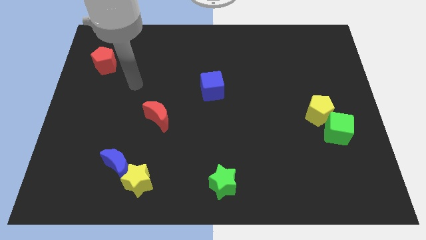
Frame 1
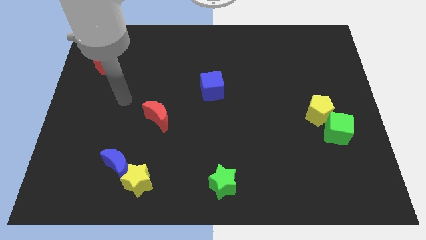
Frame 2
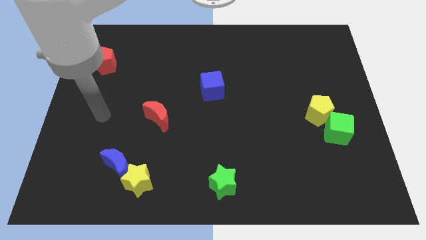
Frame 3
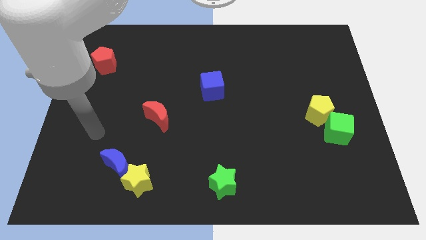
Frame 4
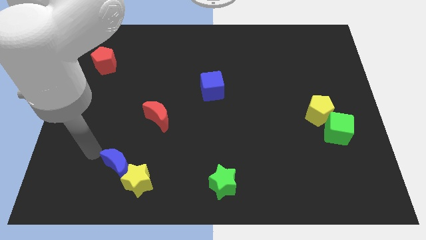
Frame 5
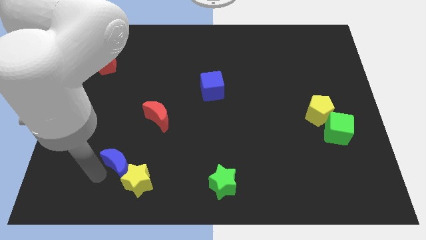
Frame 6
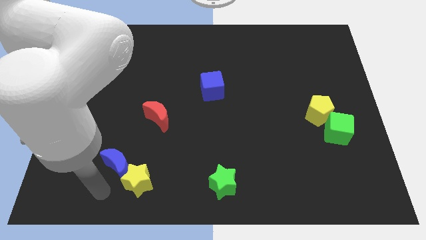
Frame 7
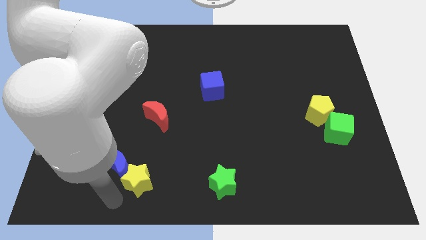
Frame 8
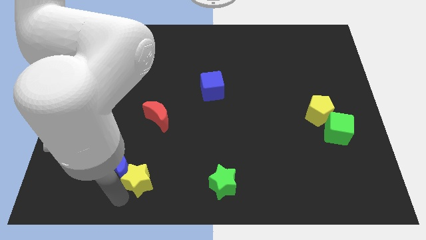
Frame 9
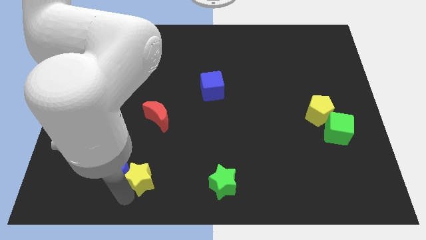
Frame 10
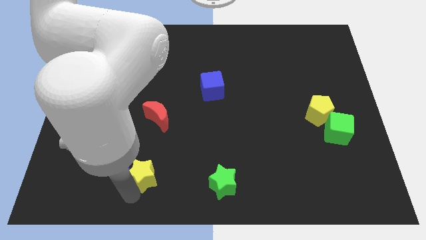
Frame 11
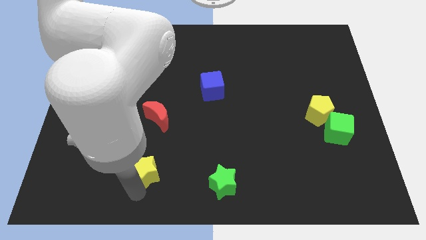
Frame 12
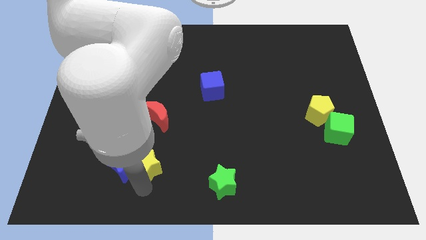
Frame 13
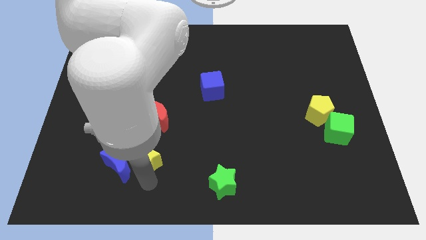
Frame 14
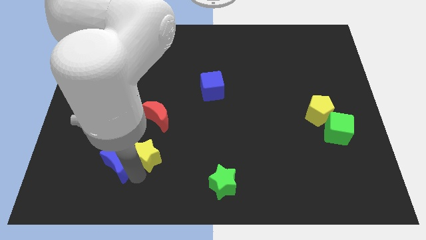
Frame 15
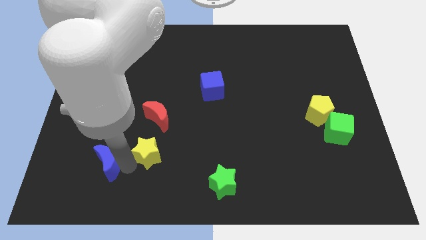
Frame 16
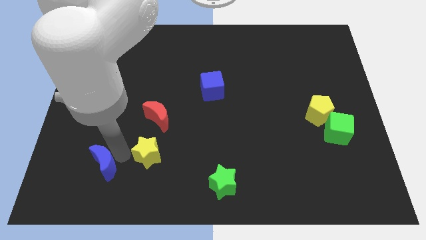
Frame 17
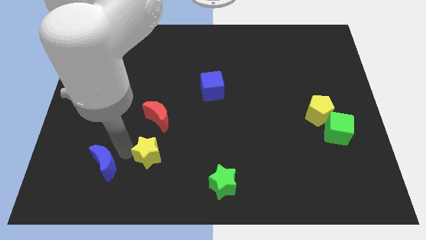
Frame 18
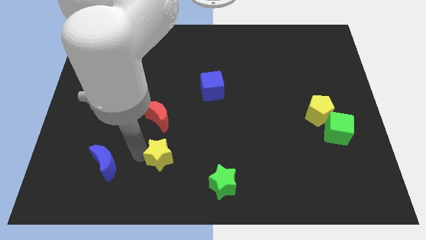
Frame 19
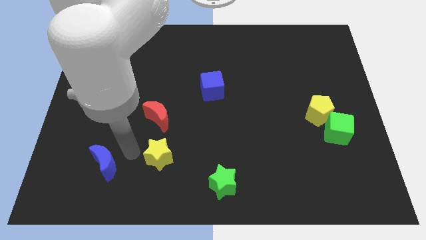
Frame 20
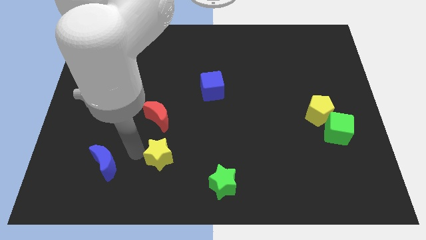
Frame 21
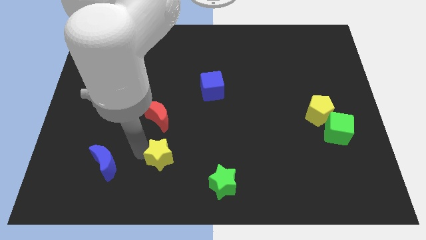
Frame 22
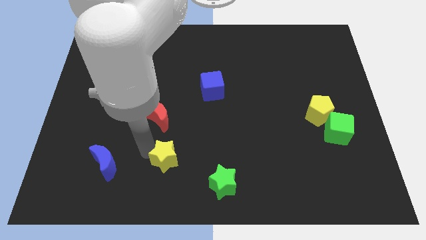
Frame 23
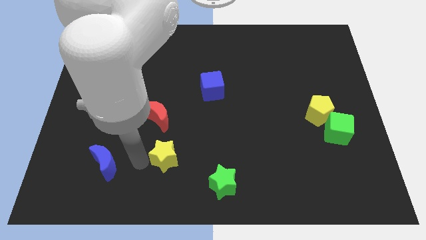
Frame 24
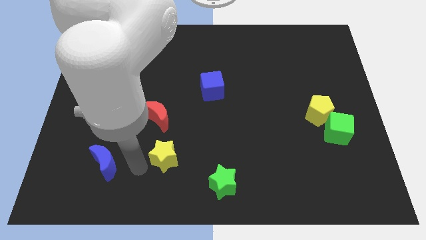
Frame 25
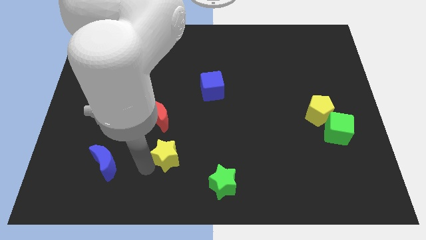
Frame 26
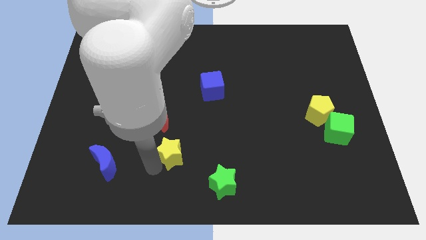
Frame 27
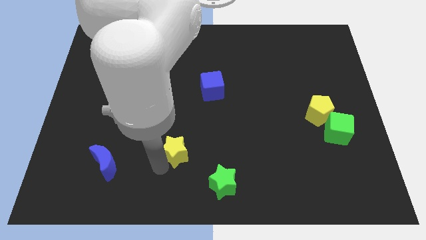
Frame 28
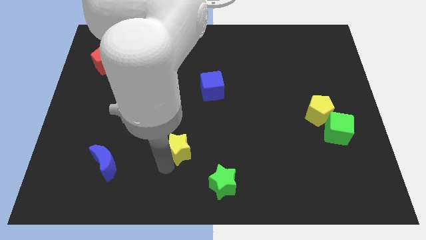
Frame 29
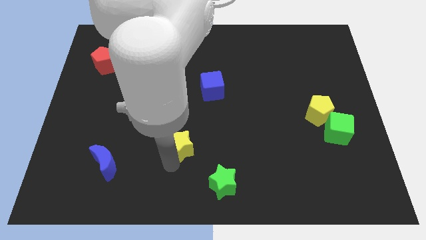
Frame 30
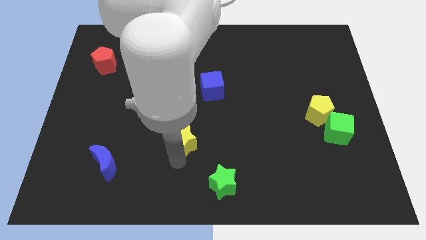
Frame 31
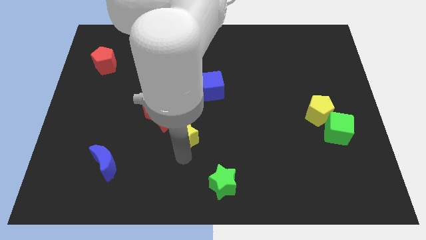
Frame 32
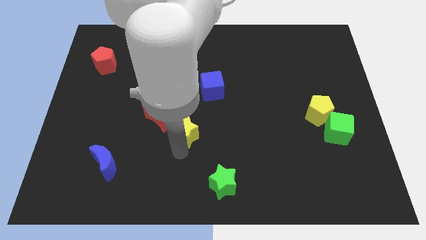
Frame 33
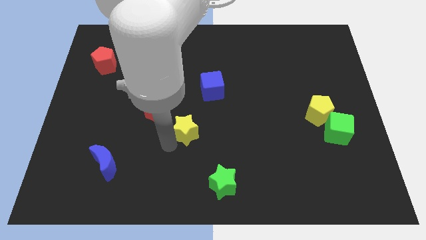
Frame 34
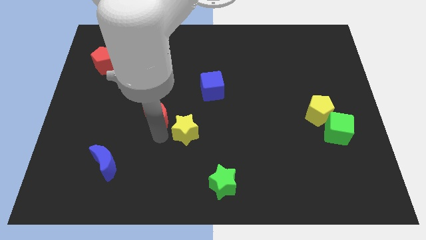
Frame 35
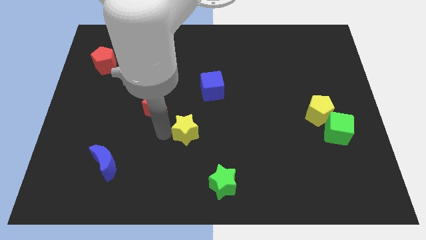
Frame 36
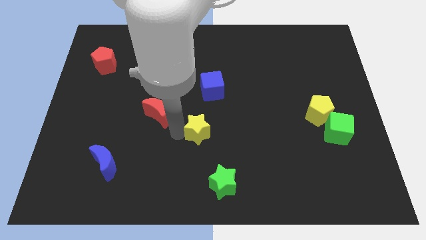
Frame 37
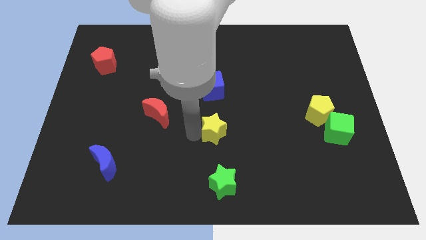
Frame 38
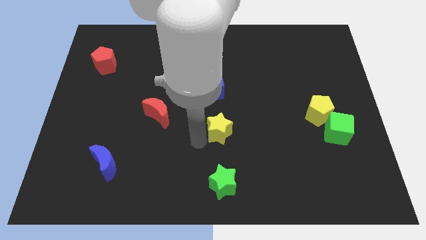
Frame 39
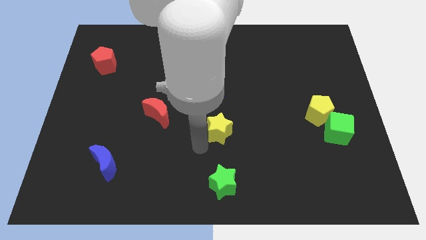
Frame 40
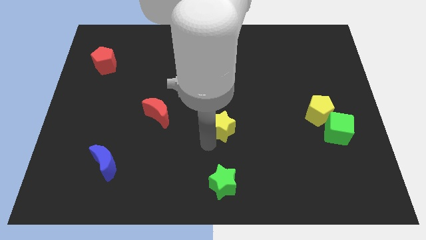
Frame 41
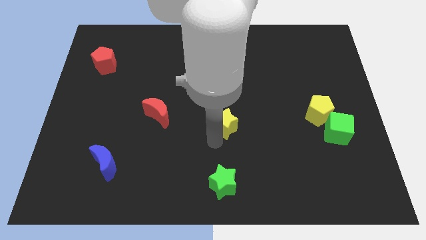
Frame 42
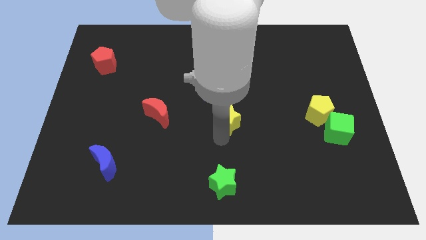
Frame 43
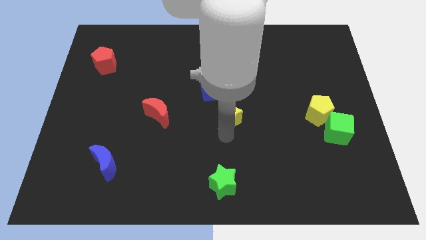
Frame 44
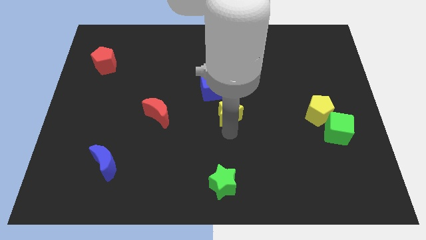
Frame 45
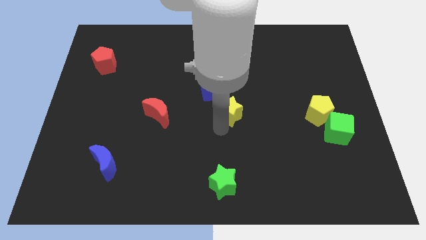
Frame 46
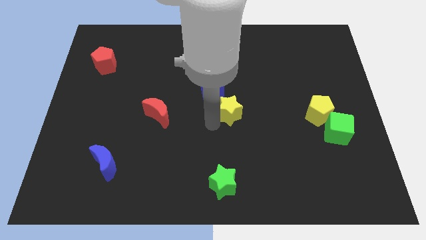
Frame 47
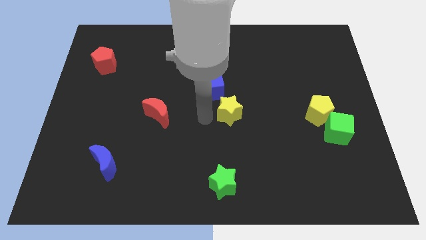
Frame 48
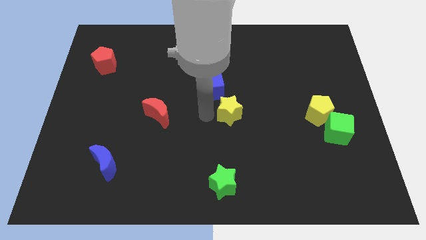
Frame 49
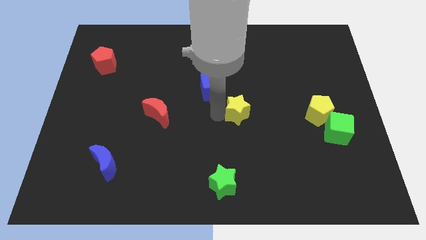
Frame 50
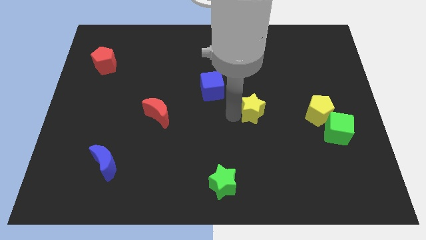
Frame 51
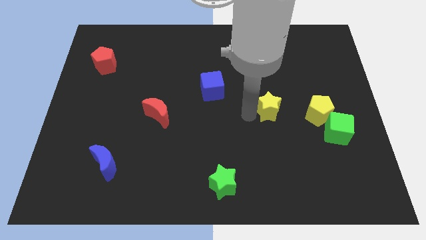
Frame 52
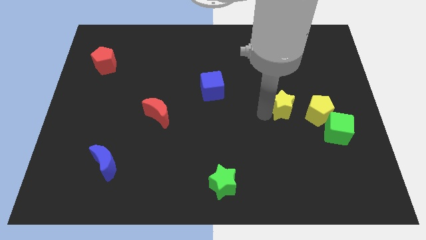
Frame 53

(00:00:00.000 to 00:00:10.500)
move the yellow star diagonally up and to the left of the yellow pentagon

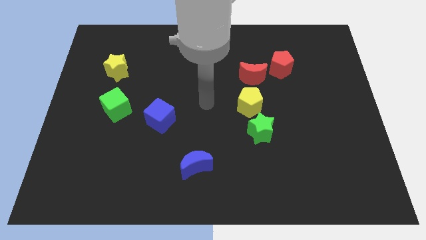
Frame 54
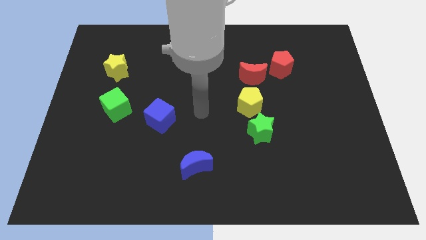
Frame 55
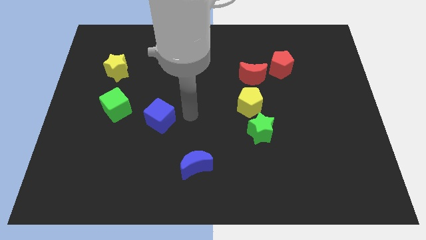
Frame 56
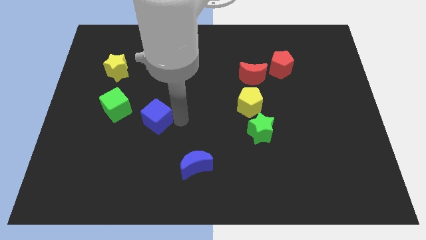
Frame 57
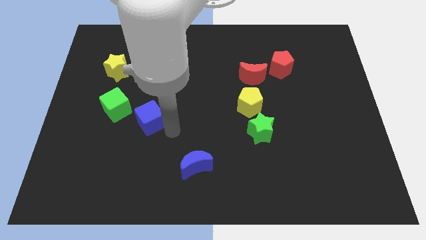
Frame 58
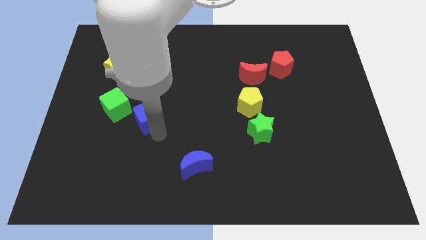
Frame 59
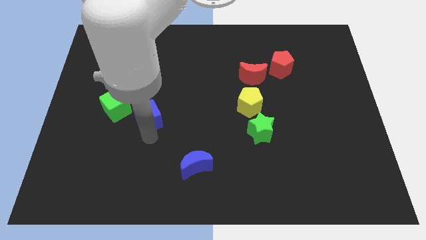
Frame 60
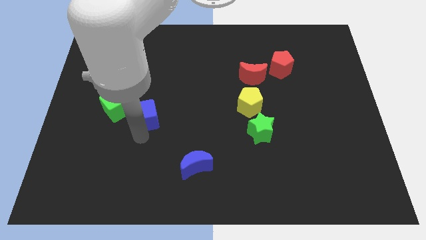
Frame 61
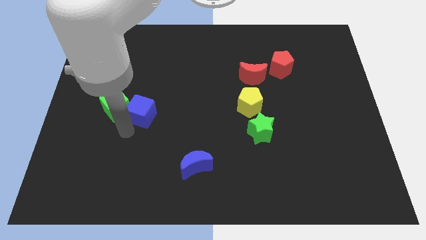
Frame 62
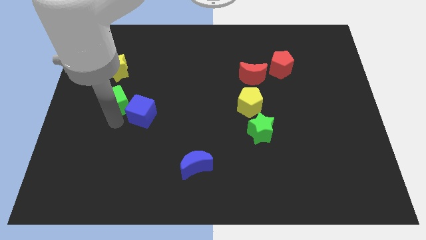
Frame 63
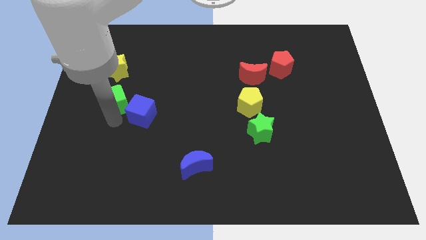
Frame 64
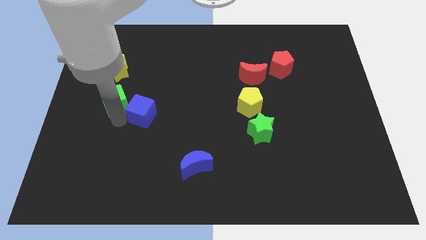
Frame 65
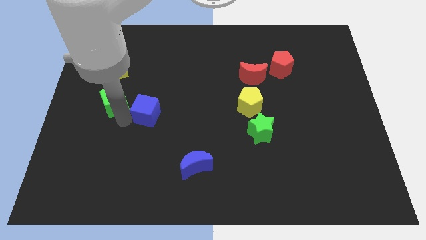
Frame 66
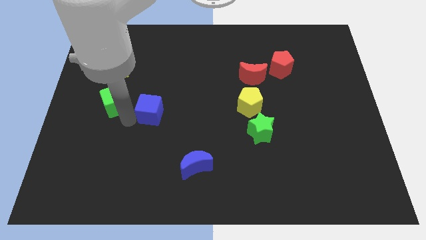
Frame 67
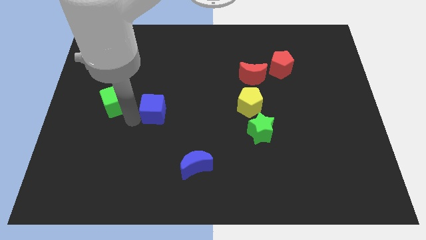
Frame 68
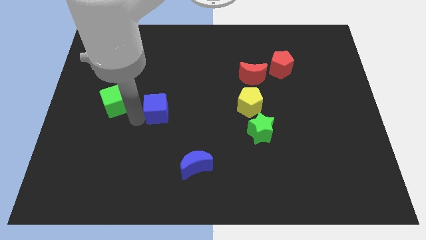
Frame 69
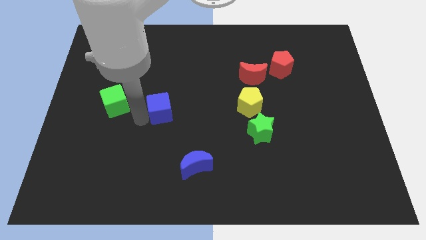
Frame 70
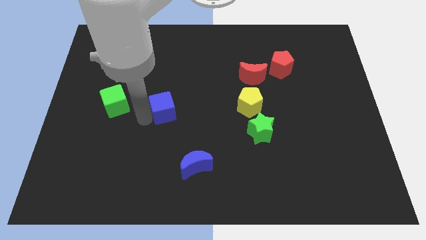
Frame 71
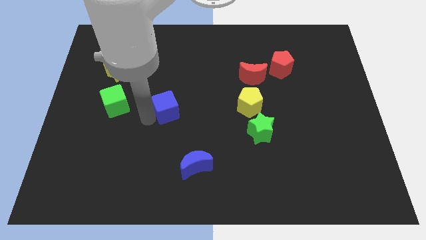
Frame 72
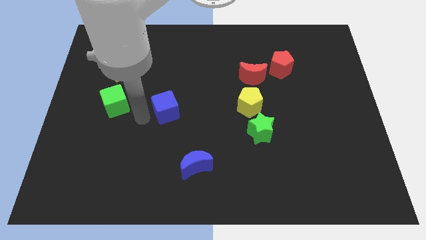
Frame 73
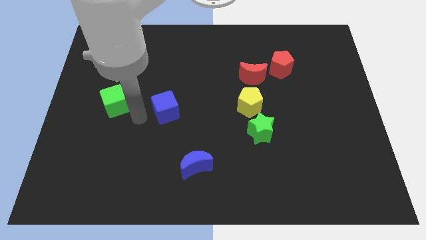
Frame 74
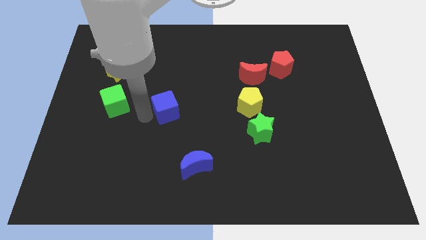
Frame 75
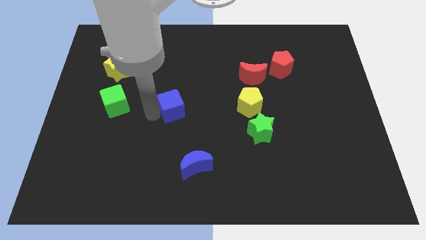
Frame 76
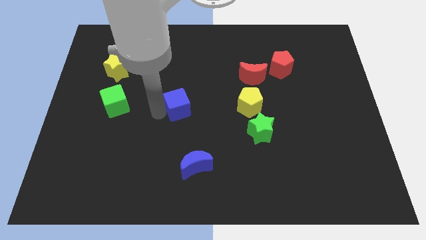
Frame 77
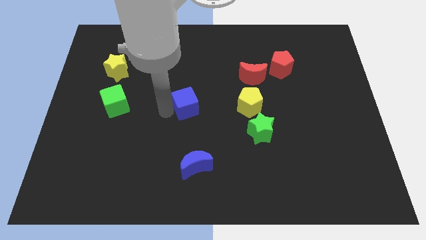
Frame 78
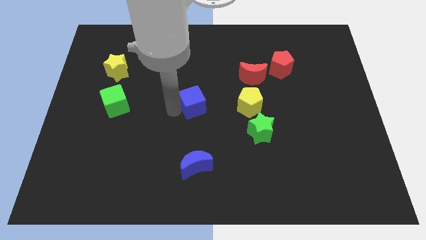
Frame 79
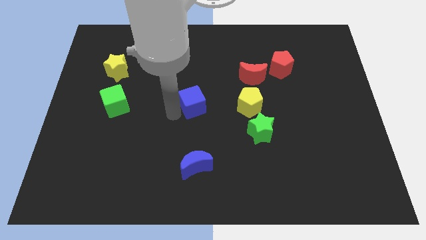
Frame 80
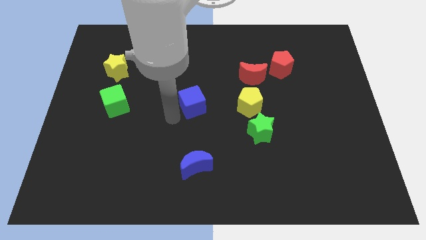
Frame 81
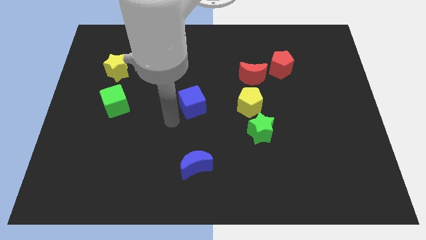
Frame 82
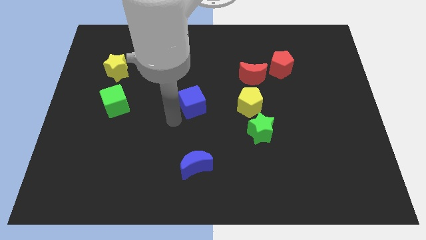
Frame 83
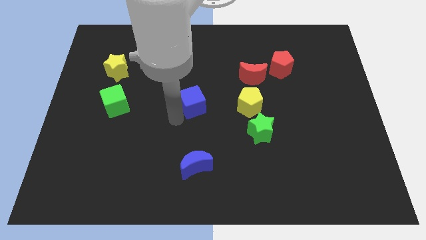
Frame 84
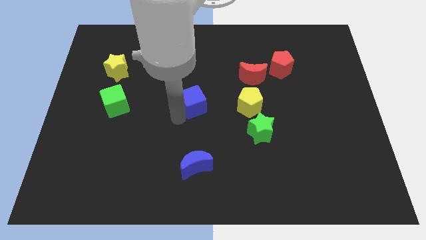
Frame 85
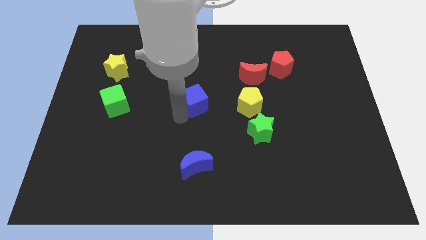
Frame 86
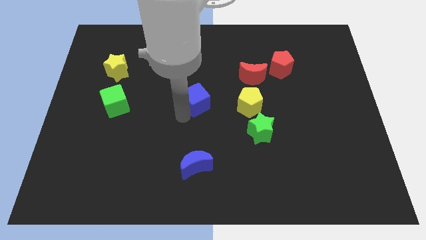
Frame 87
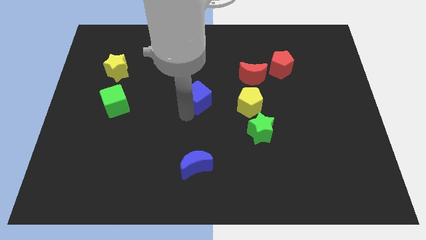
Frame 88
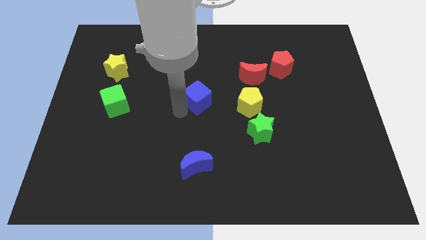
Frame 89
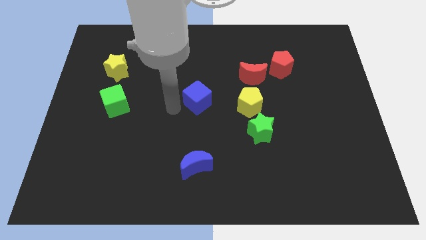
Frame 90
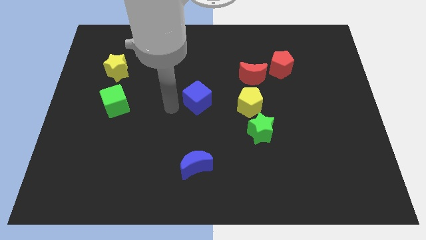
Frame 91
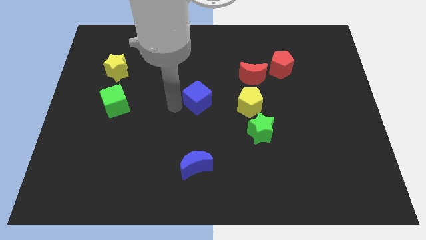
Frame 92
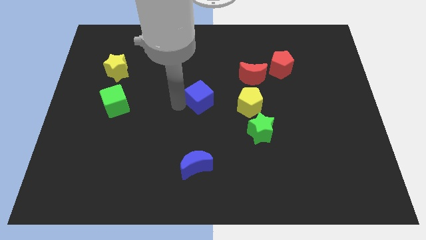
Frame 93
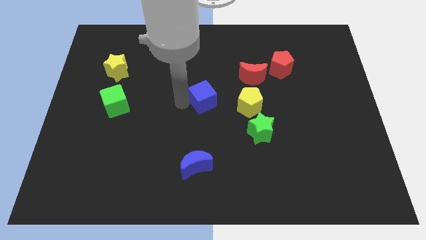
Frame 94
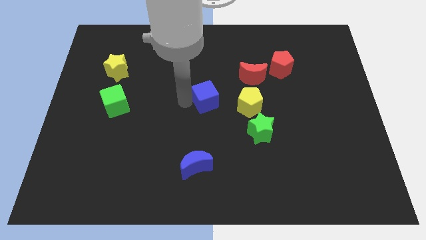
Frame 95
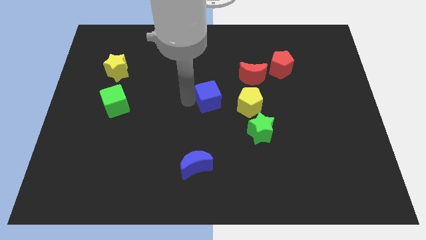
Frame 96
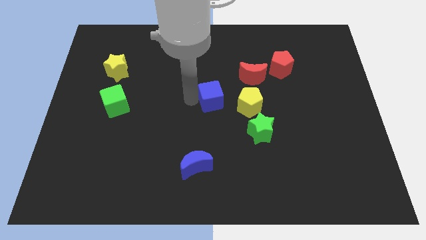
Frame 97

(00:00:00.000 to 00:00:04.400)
put the blue cube diagonally down and to the left of the red moon
